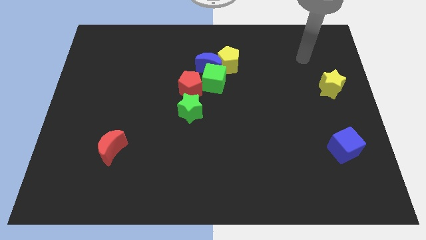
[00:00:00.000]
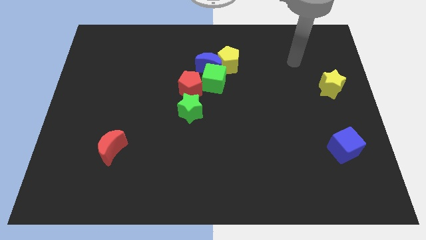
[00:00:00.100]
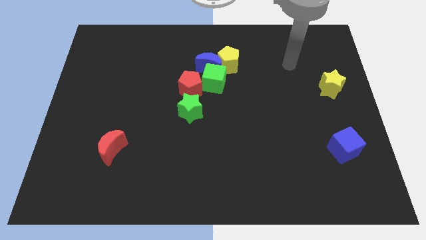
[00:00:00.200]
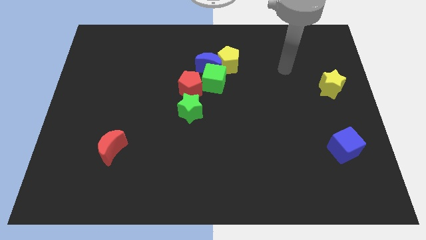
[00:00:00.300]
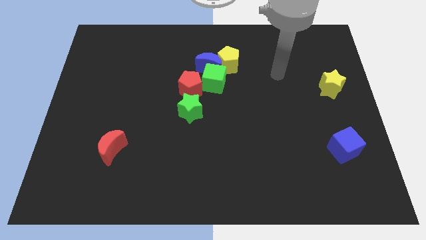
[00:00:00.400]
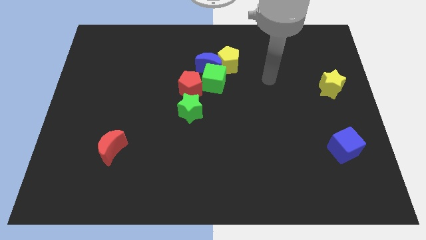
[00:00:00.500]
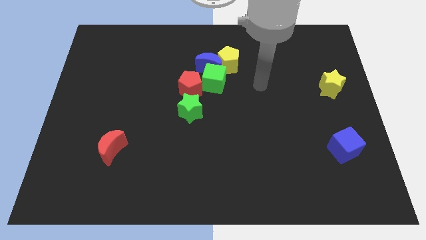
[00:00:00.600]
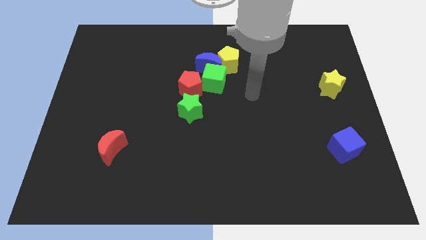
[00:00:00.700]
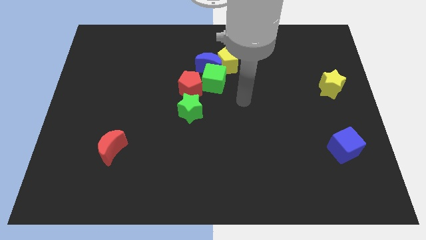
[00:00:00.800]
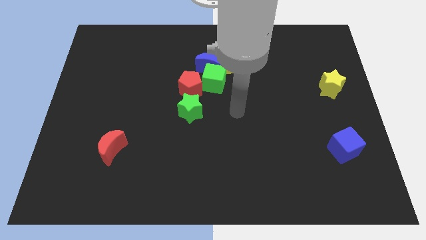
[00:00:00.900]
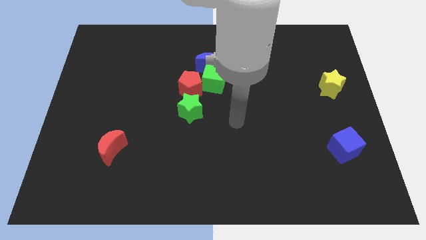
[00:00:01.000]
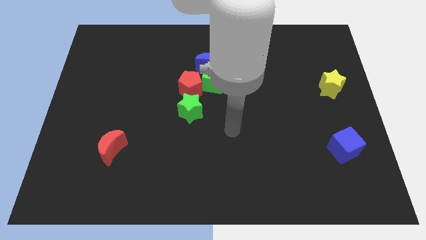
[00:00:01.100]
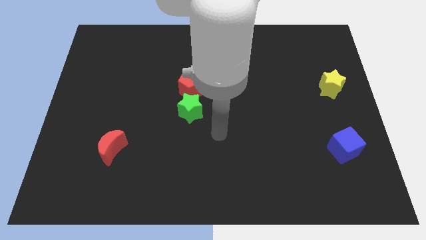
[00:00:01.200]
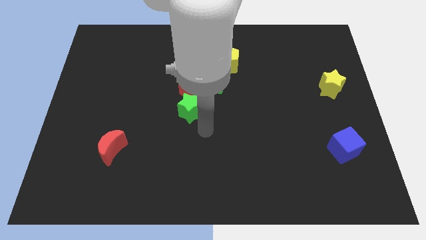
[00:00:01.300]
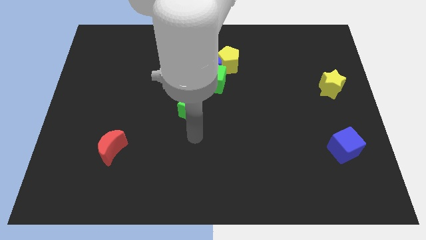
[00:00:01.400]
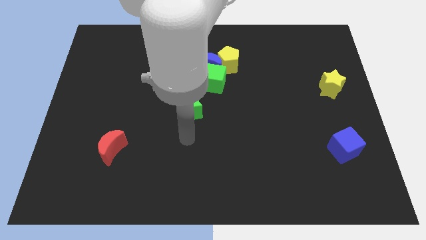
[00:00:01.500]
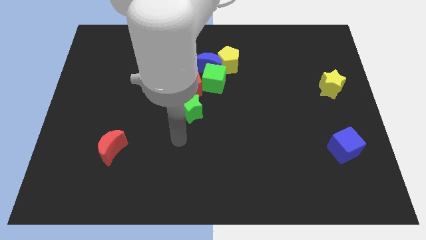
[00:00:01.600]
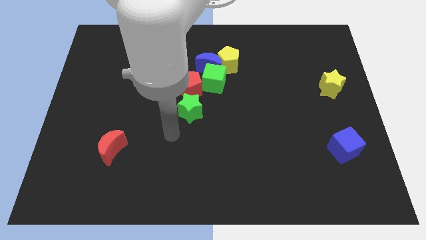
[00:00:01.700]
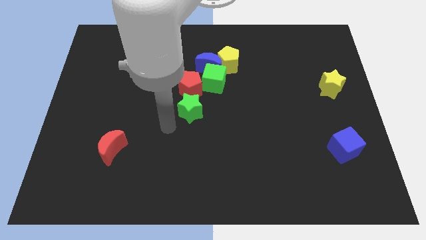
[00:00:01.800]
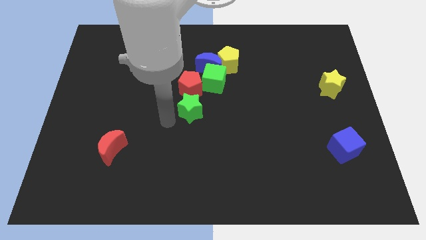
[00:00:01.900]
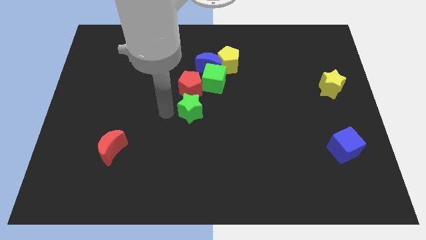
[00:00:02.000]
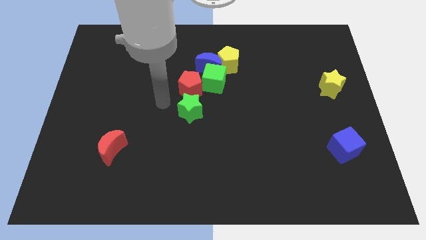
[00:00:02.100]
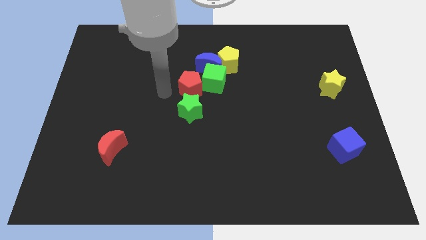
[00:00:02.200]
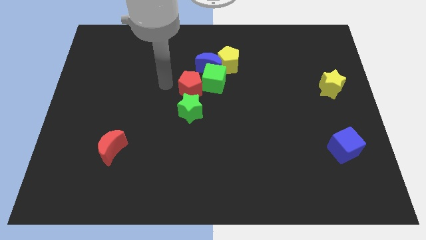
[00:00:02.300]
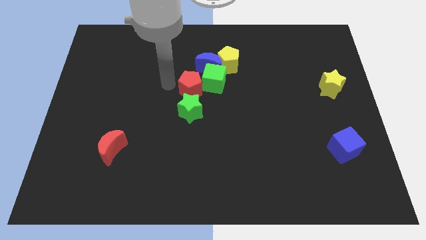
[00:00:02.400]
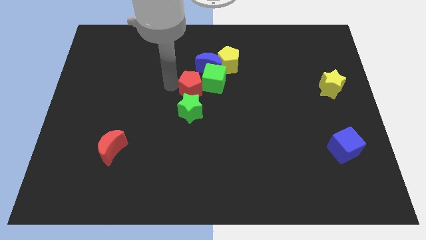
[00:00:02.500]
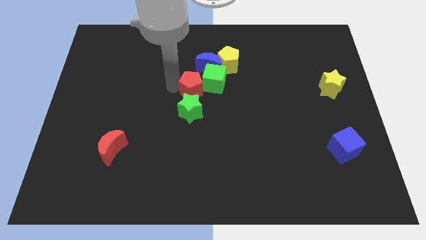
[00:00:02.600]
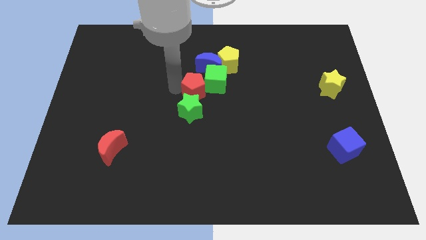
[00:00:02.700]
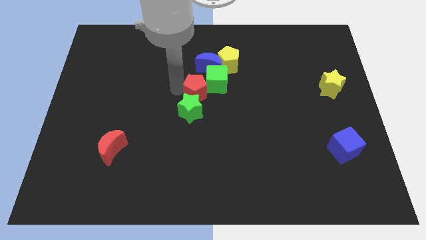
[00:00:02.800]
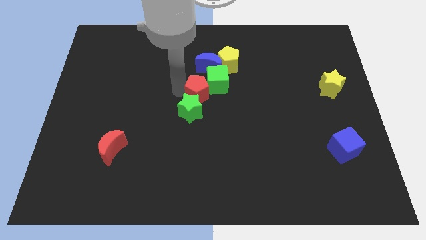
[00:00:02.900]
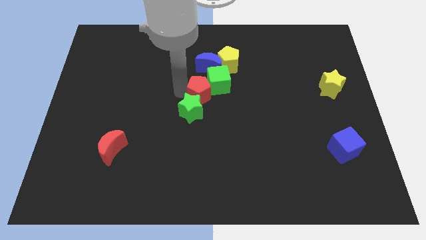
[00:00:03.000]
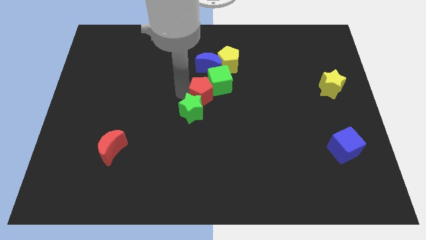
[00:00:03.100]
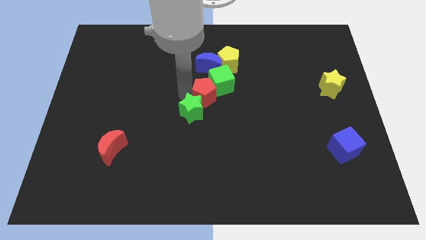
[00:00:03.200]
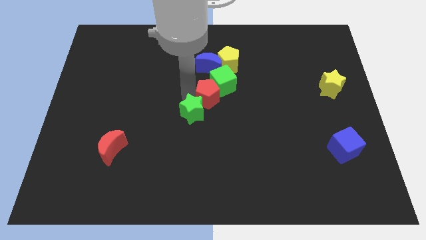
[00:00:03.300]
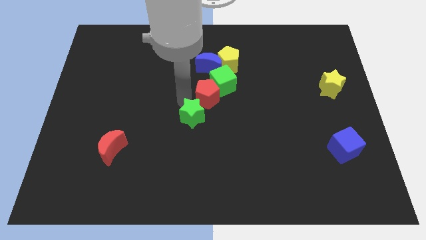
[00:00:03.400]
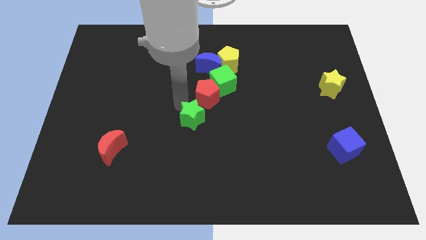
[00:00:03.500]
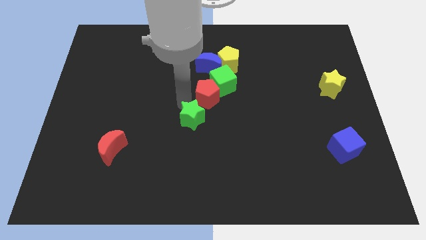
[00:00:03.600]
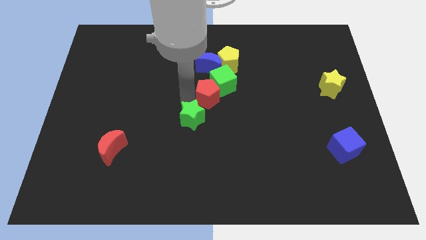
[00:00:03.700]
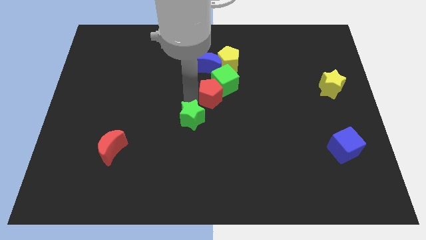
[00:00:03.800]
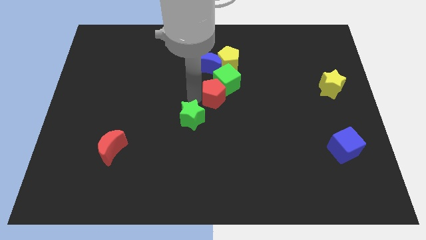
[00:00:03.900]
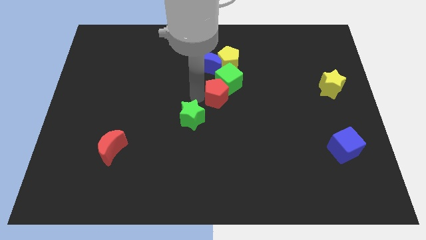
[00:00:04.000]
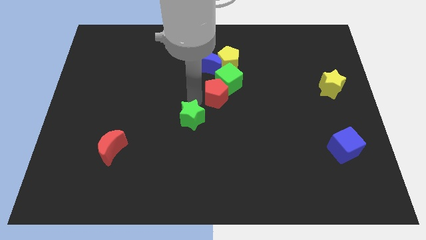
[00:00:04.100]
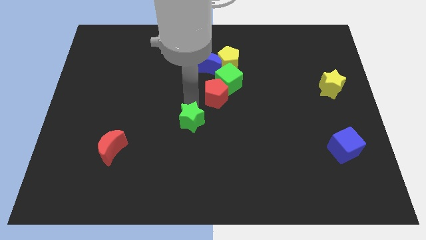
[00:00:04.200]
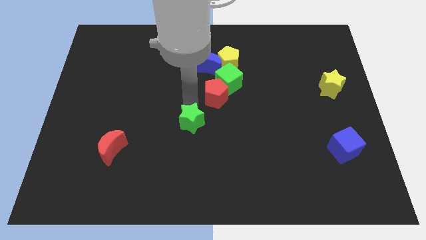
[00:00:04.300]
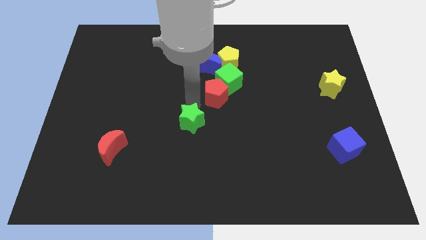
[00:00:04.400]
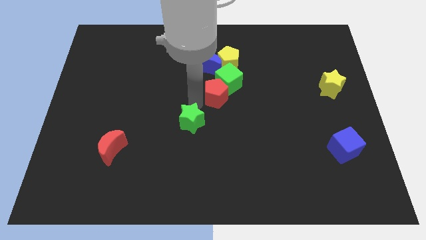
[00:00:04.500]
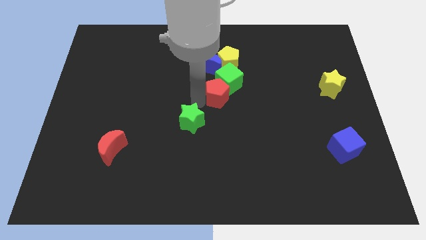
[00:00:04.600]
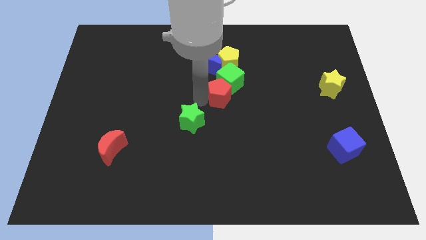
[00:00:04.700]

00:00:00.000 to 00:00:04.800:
slightly slide the red pentagon right

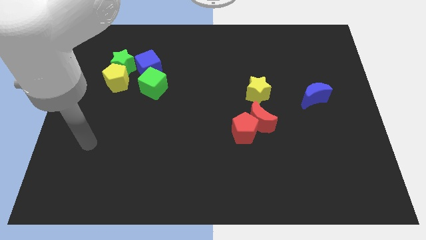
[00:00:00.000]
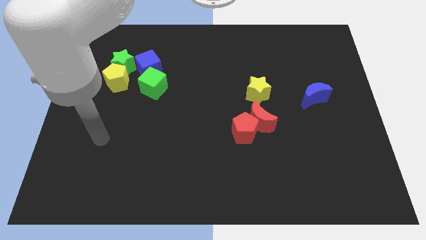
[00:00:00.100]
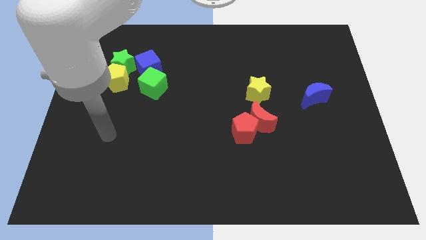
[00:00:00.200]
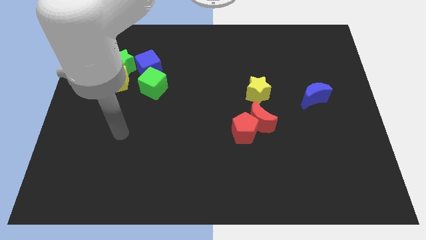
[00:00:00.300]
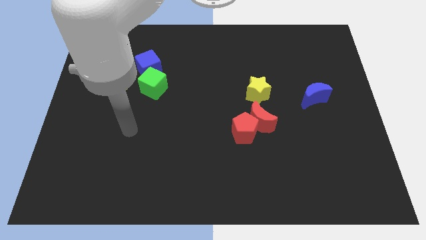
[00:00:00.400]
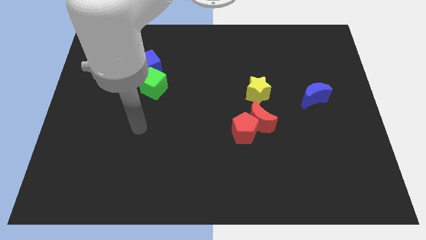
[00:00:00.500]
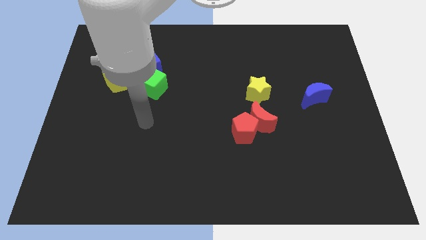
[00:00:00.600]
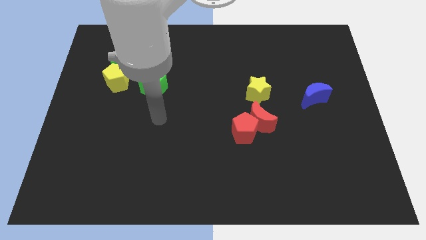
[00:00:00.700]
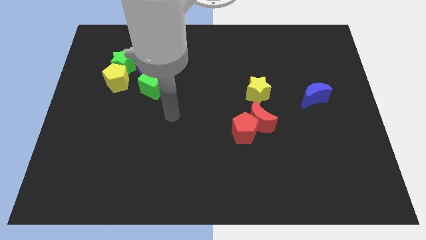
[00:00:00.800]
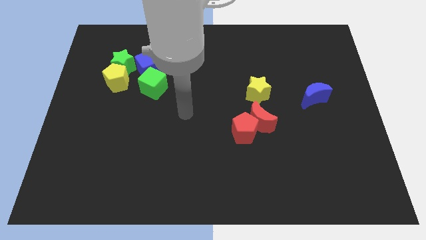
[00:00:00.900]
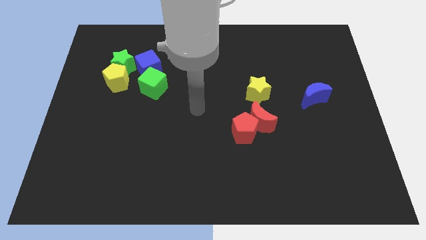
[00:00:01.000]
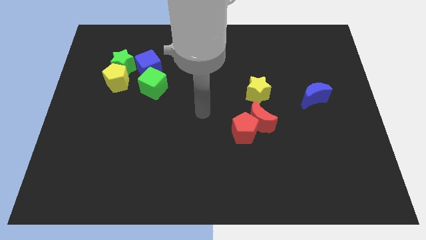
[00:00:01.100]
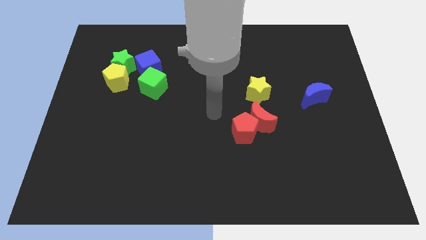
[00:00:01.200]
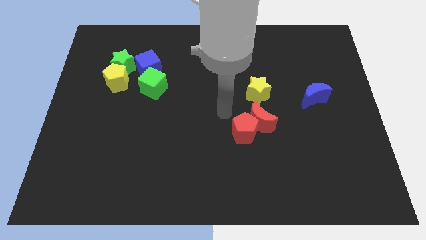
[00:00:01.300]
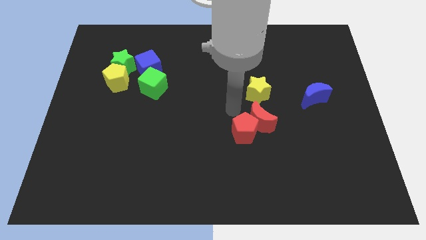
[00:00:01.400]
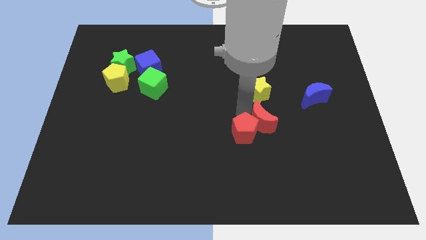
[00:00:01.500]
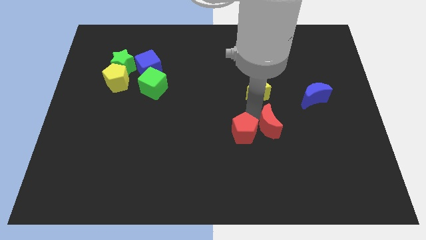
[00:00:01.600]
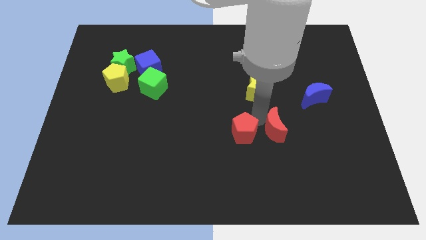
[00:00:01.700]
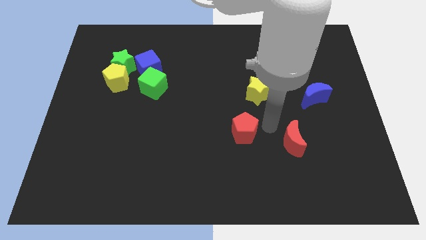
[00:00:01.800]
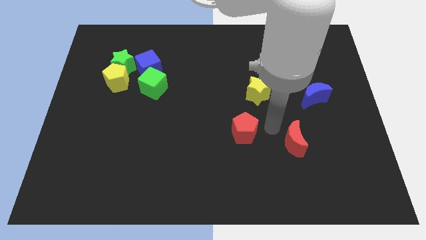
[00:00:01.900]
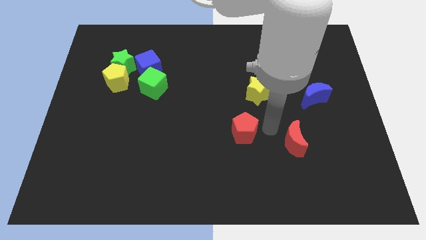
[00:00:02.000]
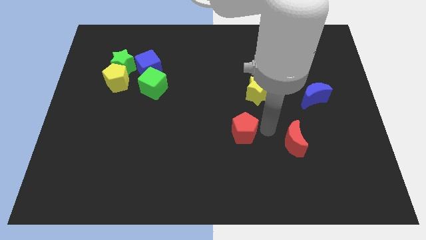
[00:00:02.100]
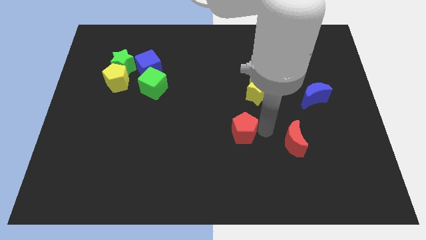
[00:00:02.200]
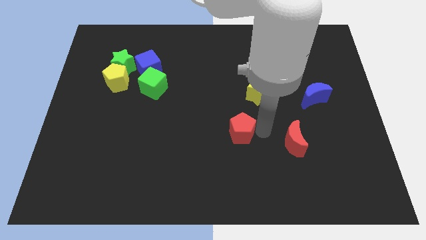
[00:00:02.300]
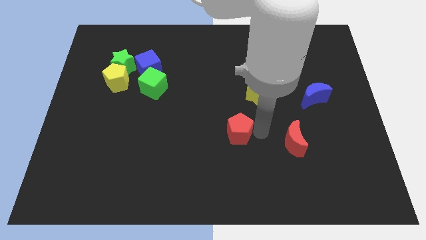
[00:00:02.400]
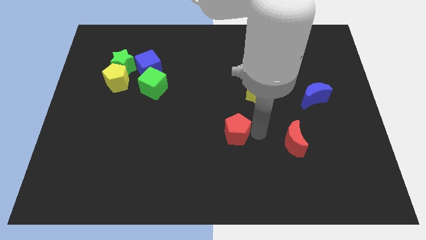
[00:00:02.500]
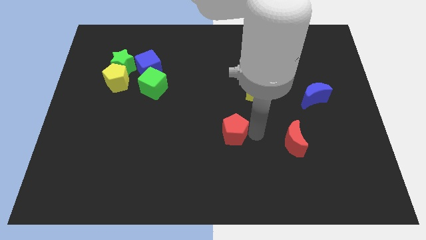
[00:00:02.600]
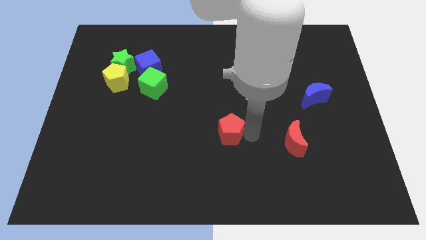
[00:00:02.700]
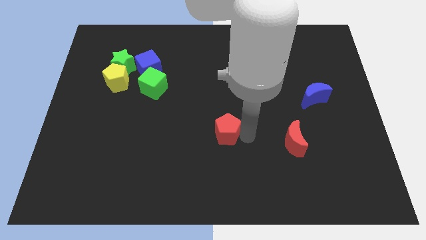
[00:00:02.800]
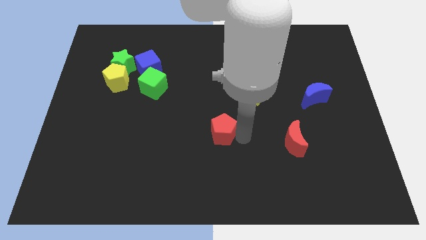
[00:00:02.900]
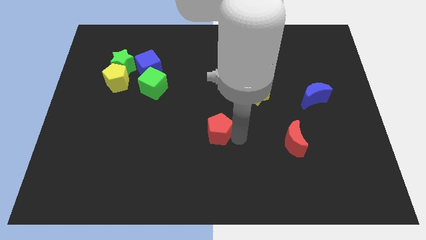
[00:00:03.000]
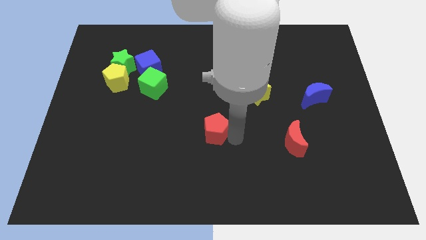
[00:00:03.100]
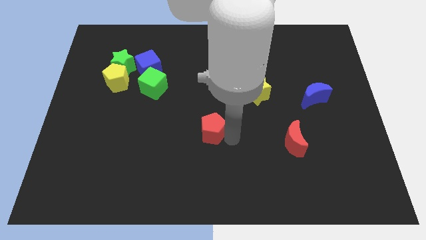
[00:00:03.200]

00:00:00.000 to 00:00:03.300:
push the red pentagon a little to the left
